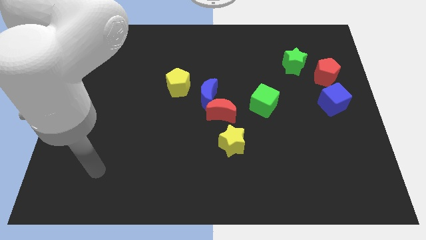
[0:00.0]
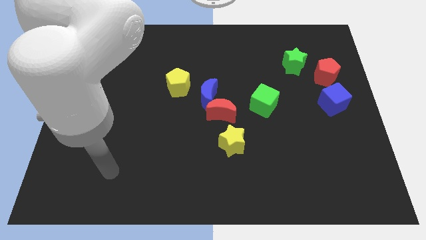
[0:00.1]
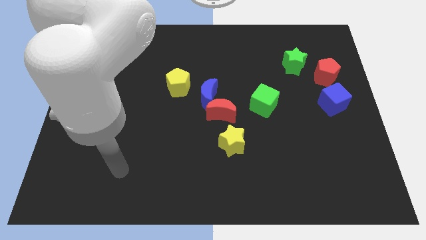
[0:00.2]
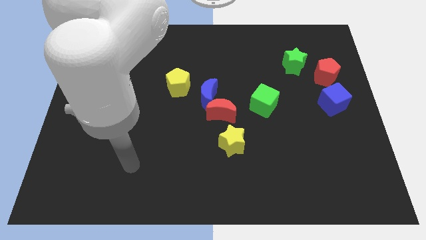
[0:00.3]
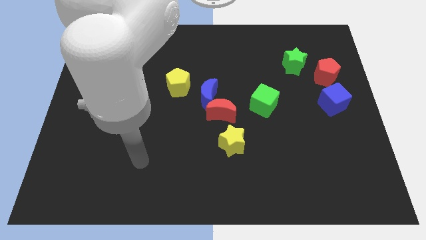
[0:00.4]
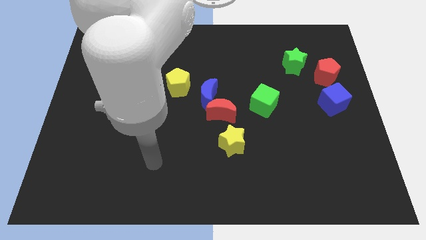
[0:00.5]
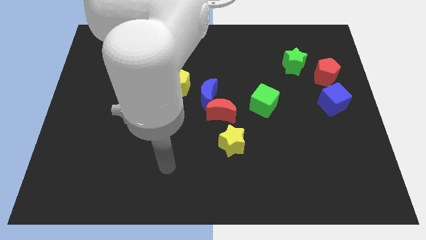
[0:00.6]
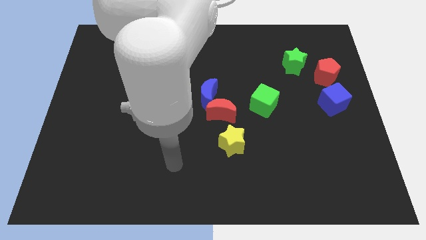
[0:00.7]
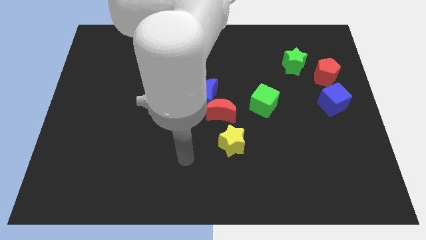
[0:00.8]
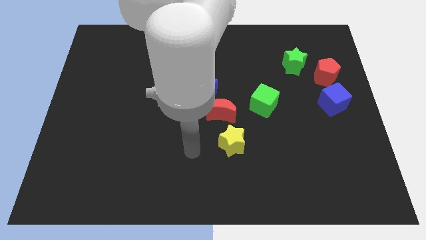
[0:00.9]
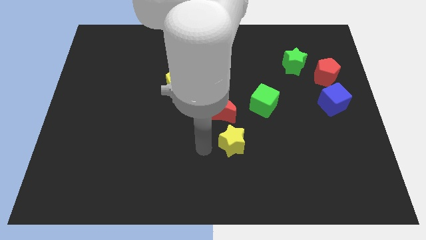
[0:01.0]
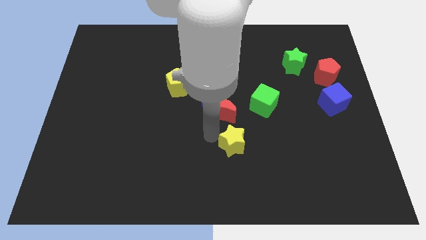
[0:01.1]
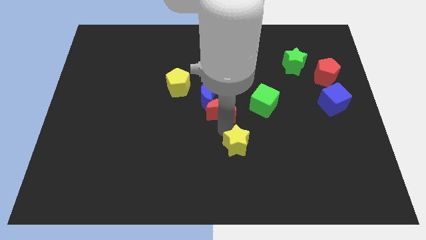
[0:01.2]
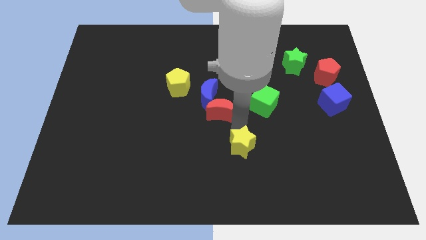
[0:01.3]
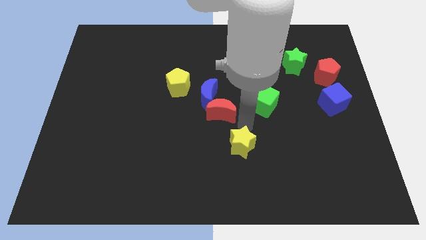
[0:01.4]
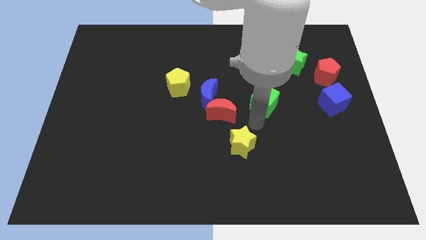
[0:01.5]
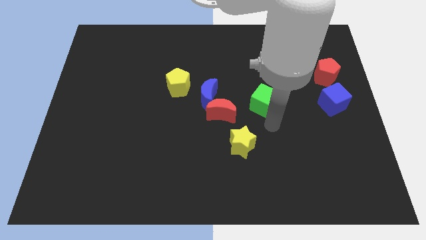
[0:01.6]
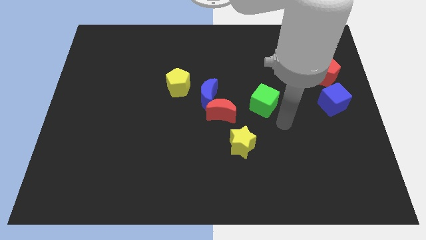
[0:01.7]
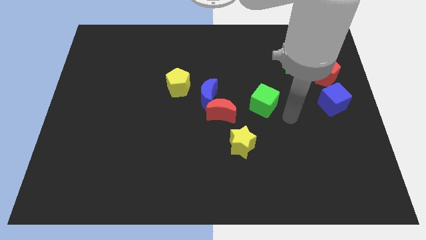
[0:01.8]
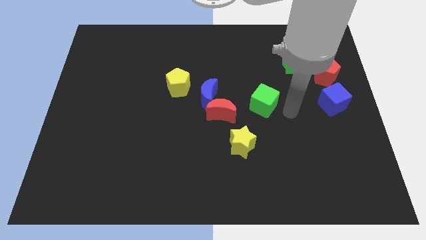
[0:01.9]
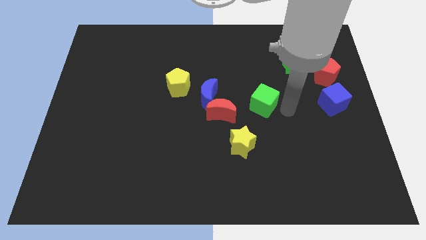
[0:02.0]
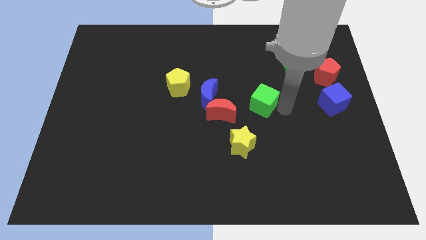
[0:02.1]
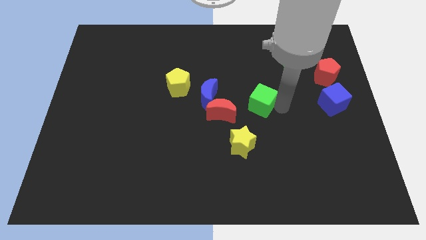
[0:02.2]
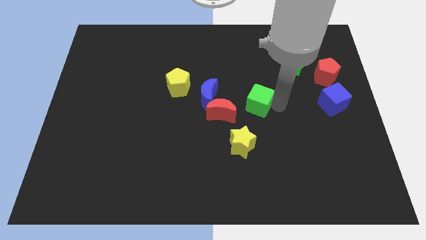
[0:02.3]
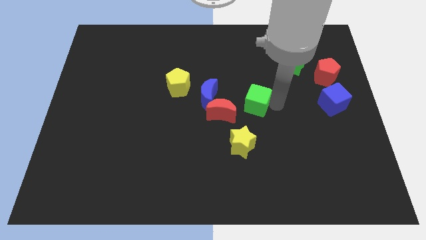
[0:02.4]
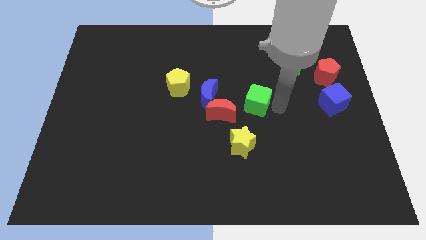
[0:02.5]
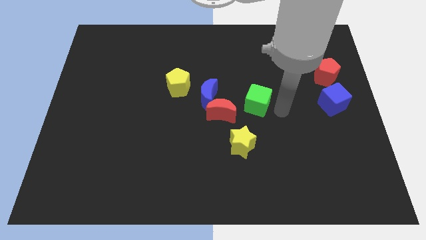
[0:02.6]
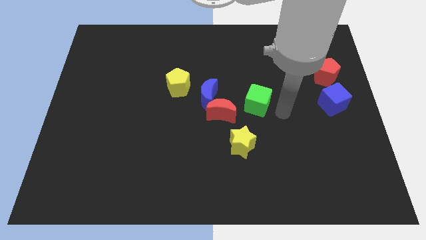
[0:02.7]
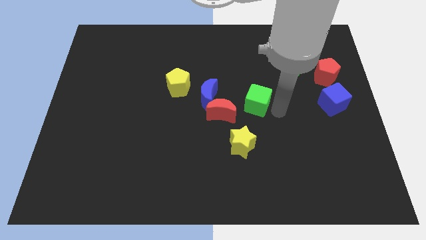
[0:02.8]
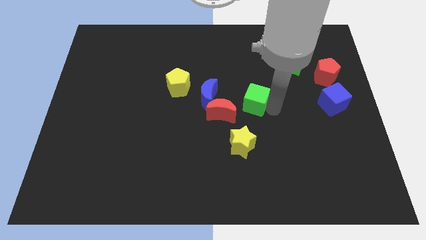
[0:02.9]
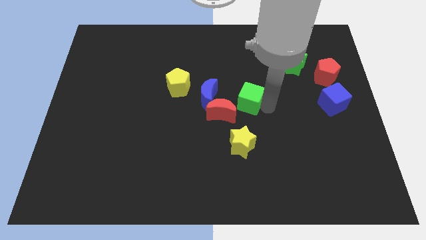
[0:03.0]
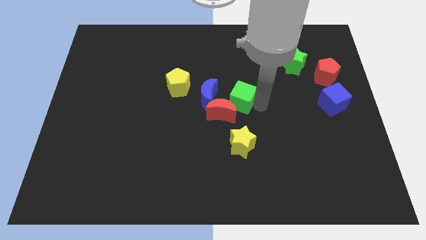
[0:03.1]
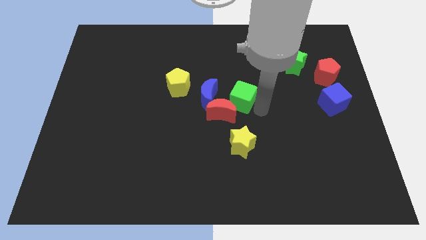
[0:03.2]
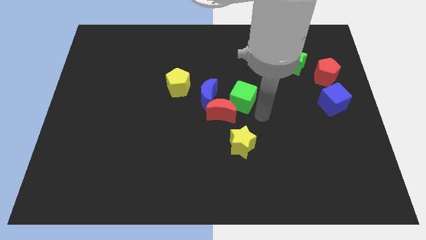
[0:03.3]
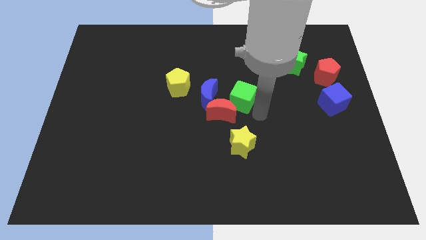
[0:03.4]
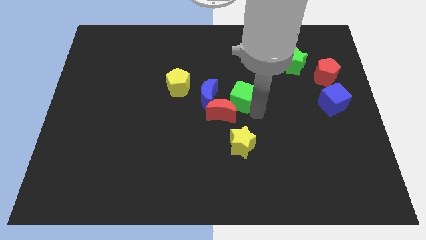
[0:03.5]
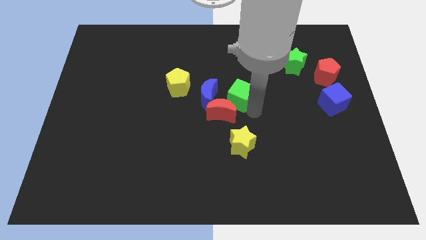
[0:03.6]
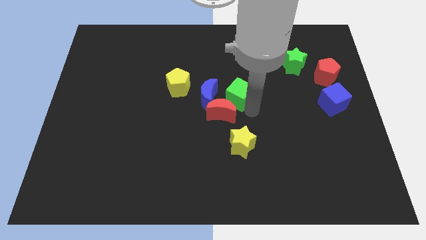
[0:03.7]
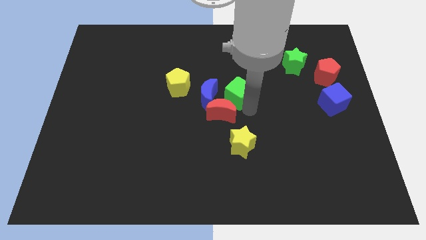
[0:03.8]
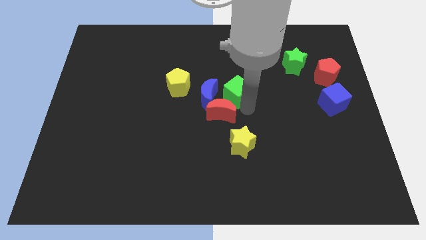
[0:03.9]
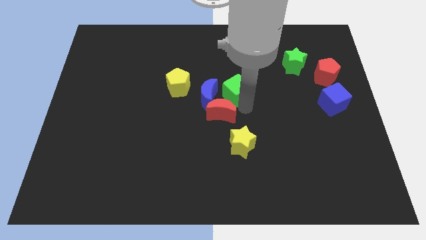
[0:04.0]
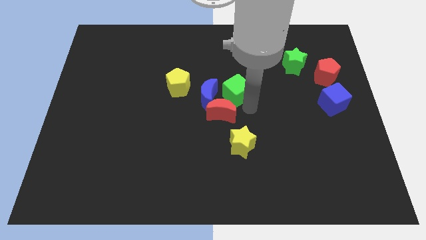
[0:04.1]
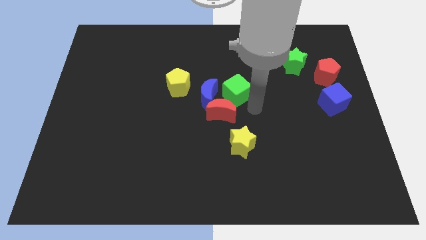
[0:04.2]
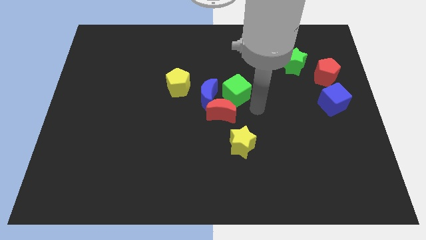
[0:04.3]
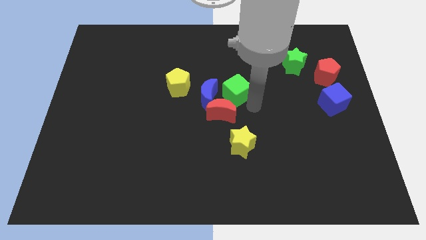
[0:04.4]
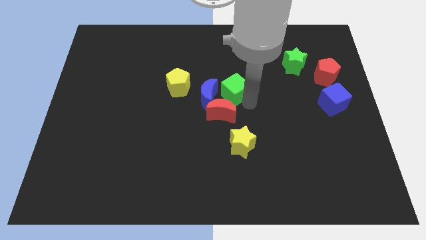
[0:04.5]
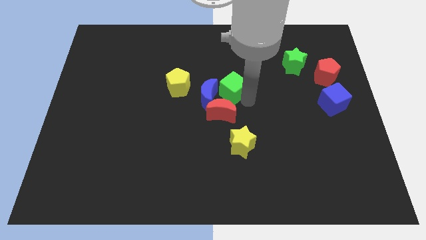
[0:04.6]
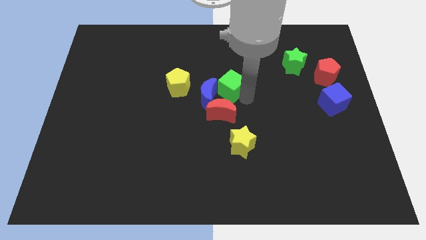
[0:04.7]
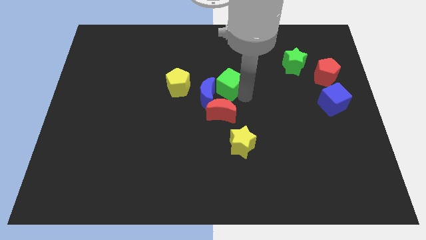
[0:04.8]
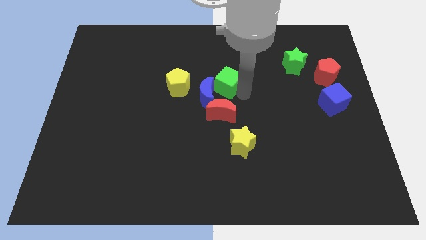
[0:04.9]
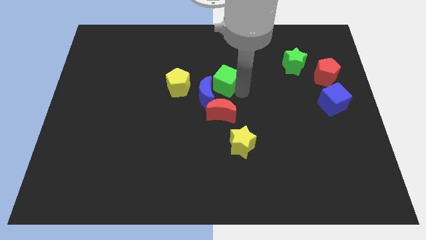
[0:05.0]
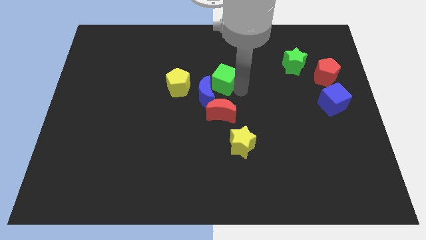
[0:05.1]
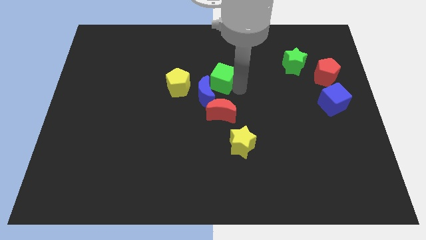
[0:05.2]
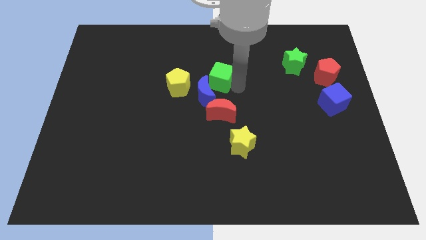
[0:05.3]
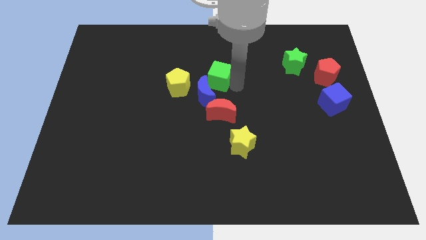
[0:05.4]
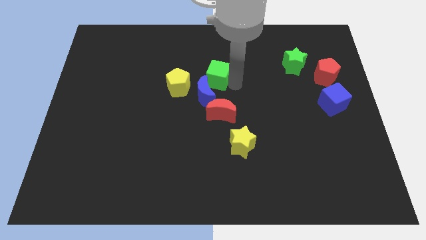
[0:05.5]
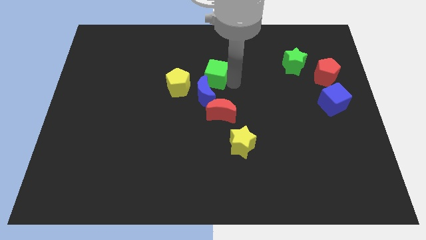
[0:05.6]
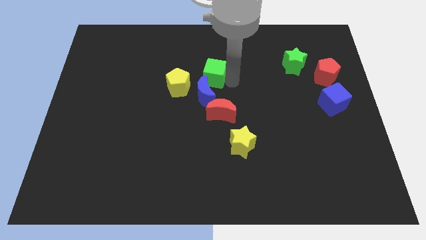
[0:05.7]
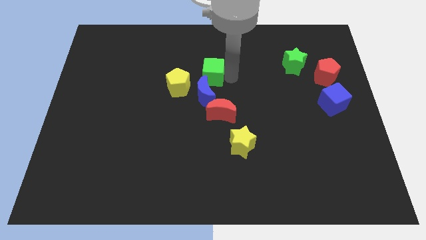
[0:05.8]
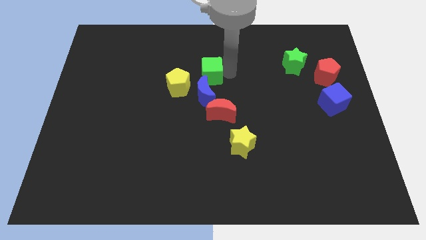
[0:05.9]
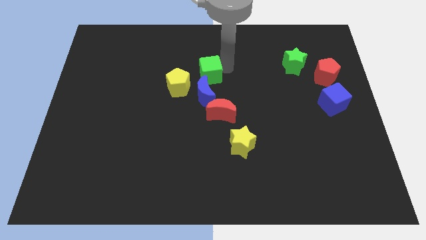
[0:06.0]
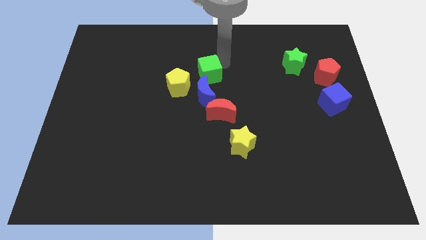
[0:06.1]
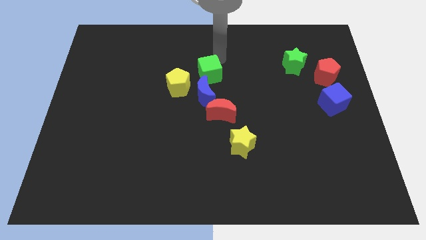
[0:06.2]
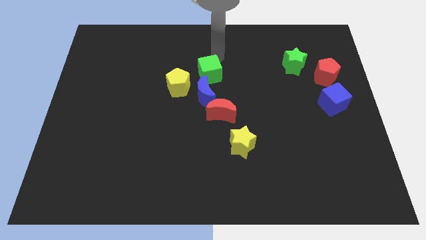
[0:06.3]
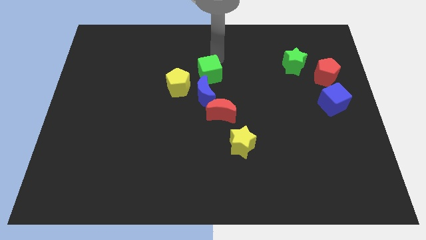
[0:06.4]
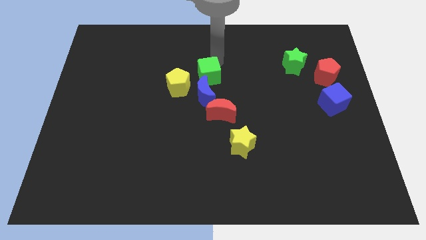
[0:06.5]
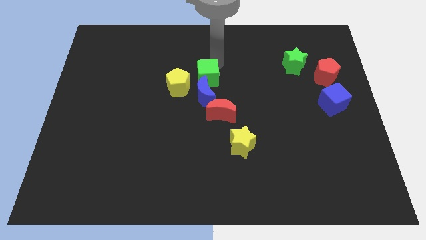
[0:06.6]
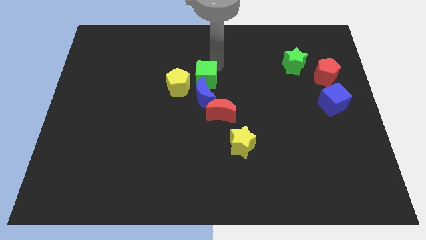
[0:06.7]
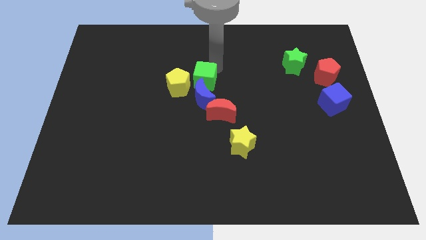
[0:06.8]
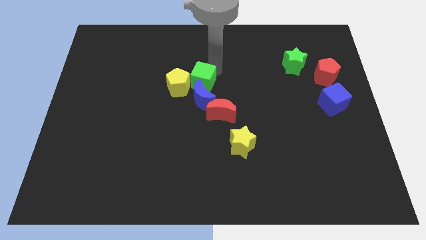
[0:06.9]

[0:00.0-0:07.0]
put the green cube diagonally up and to the left of the red moon
